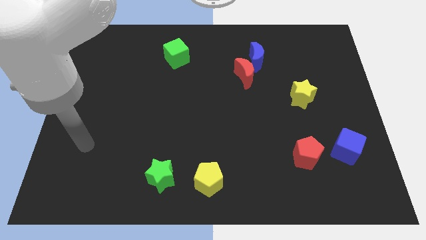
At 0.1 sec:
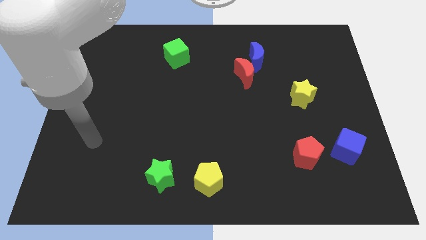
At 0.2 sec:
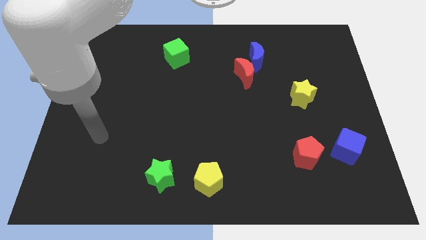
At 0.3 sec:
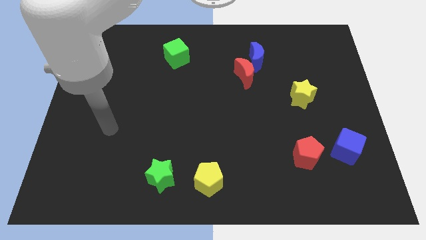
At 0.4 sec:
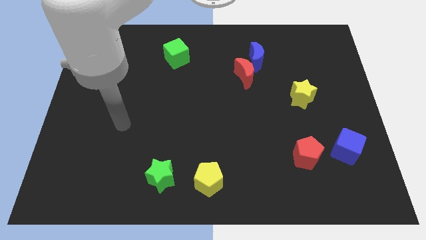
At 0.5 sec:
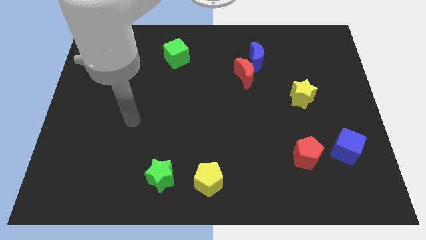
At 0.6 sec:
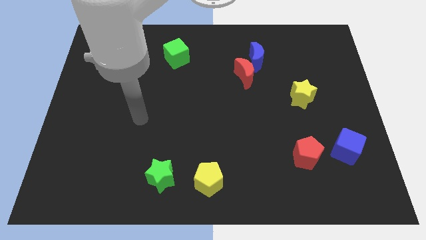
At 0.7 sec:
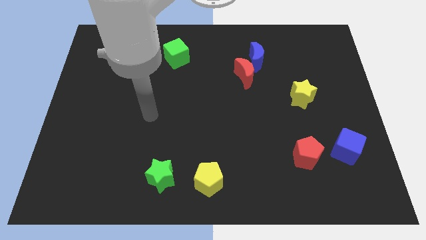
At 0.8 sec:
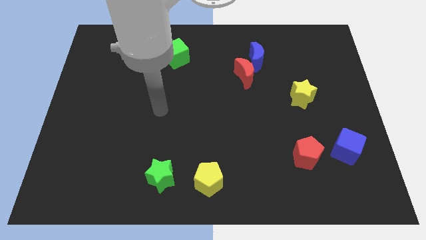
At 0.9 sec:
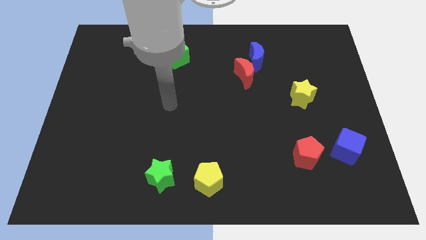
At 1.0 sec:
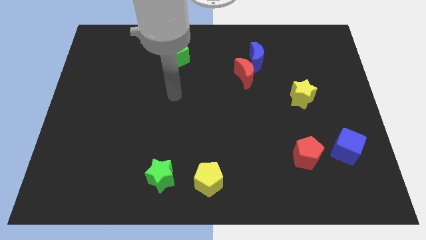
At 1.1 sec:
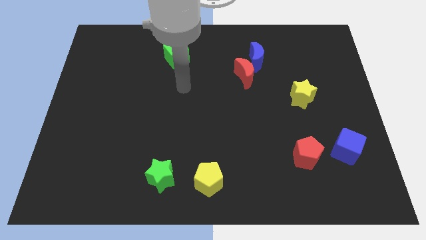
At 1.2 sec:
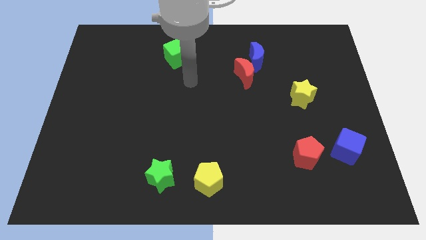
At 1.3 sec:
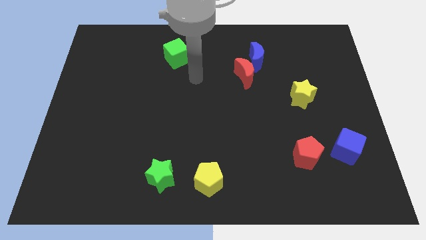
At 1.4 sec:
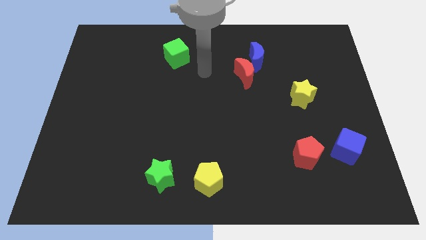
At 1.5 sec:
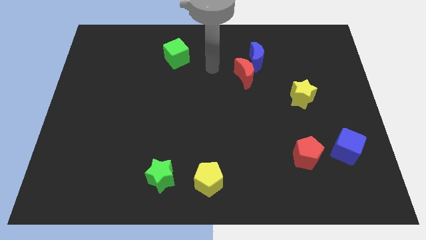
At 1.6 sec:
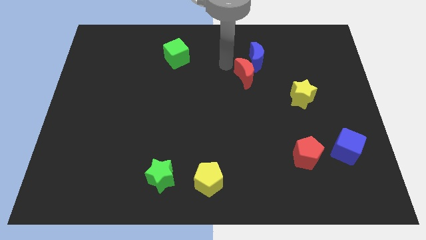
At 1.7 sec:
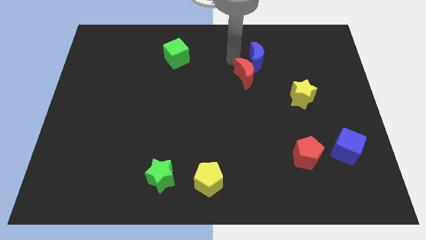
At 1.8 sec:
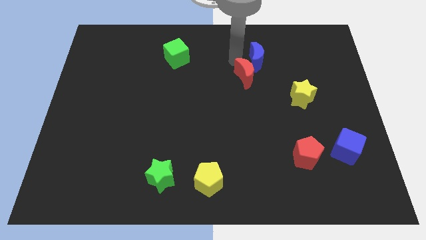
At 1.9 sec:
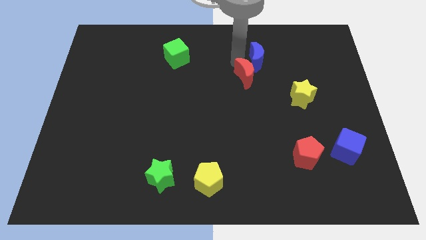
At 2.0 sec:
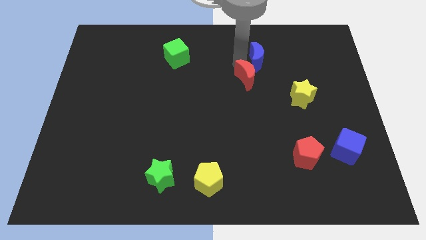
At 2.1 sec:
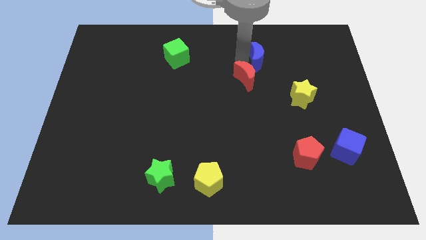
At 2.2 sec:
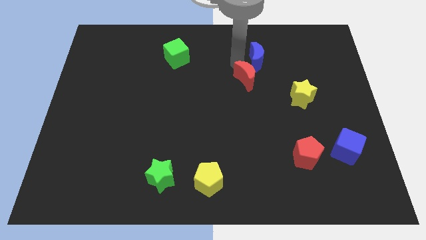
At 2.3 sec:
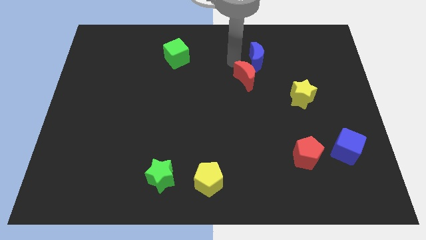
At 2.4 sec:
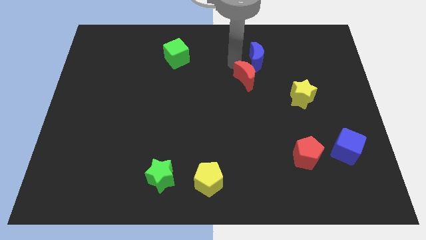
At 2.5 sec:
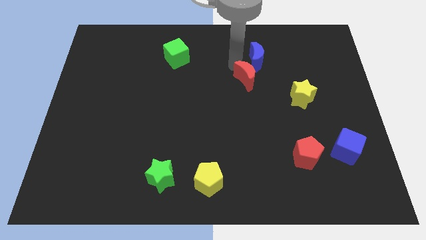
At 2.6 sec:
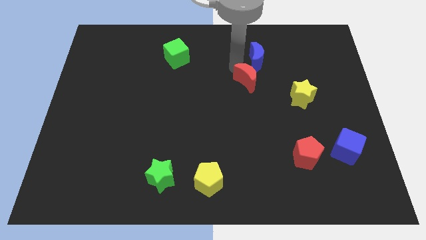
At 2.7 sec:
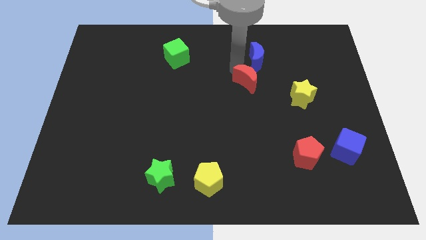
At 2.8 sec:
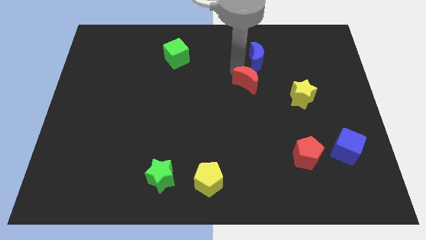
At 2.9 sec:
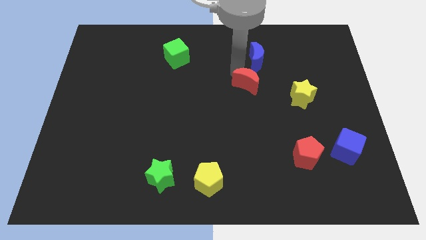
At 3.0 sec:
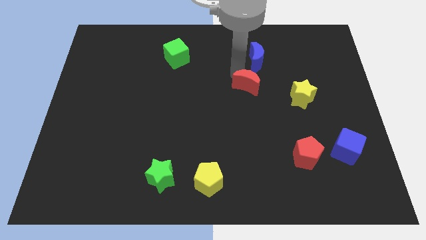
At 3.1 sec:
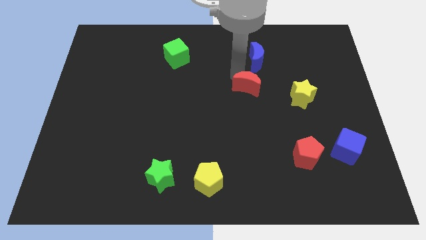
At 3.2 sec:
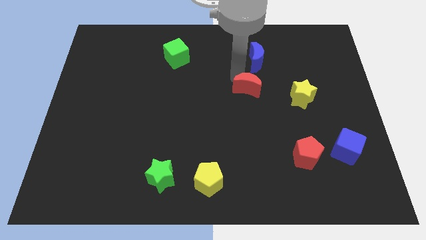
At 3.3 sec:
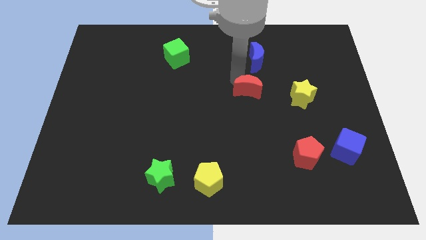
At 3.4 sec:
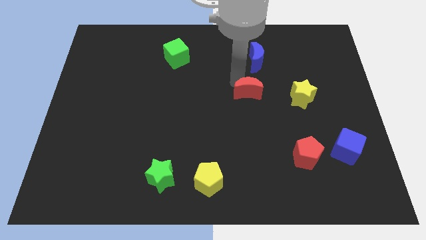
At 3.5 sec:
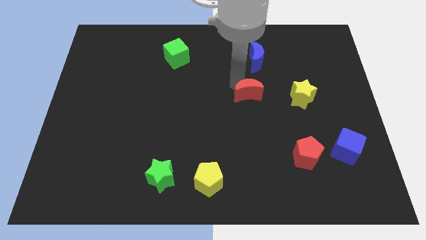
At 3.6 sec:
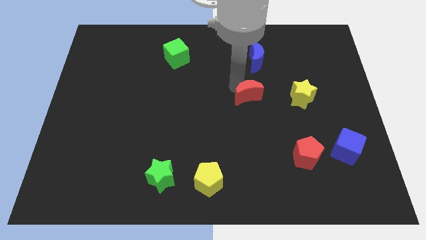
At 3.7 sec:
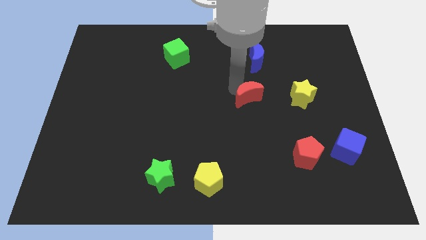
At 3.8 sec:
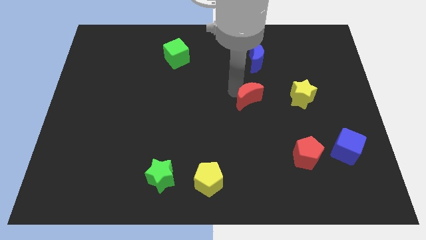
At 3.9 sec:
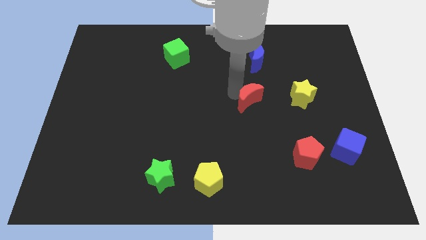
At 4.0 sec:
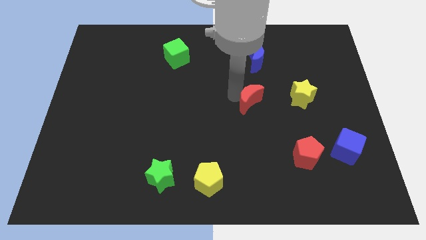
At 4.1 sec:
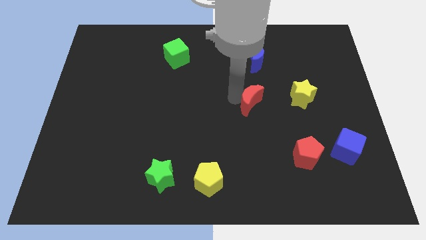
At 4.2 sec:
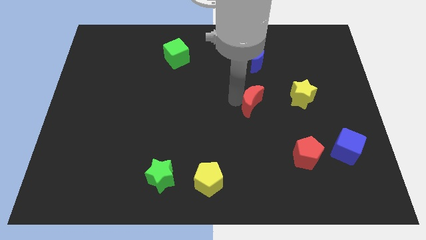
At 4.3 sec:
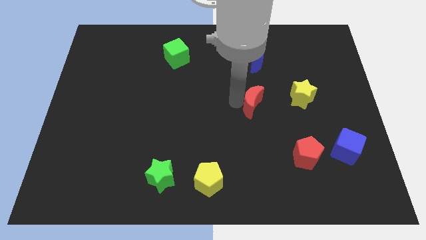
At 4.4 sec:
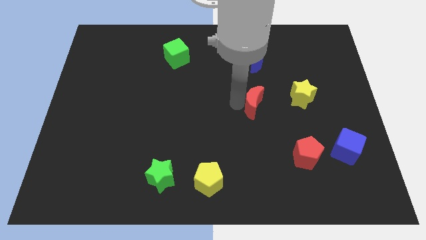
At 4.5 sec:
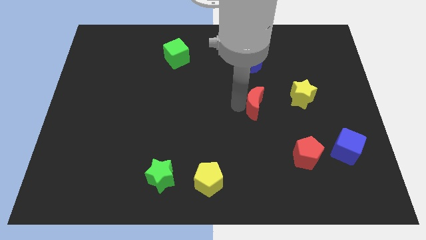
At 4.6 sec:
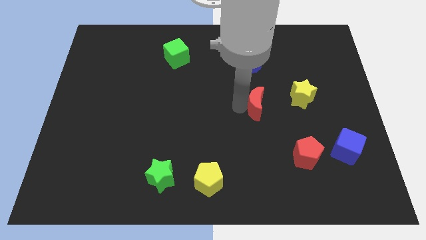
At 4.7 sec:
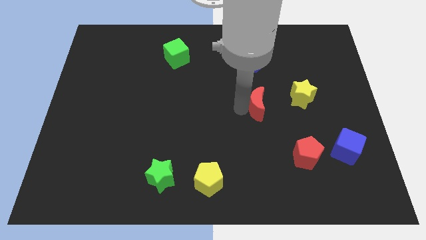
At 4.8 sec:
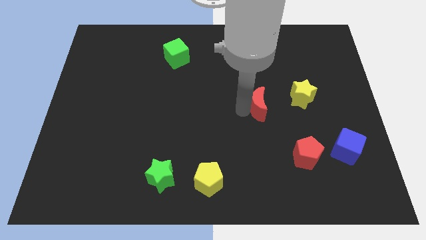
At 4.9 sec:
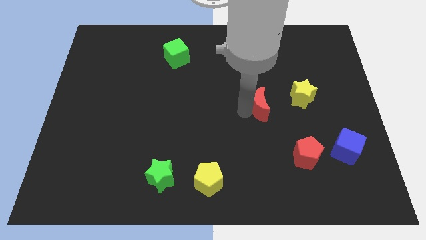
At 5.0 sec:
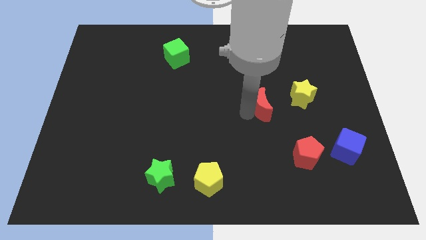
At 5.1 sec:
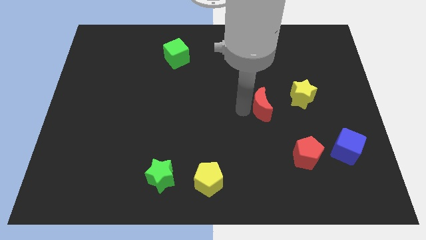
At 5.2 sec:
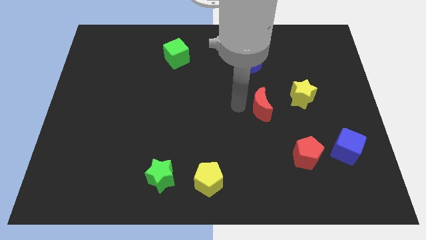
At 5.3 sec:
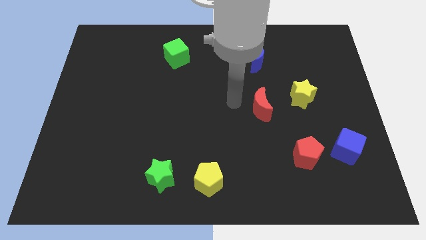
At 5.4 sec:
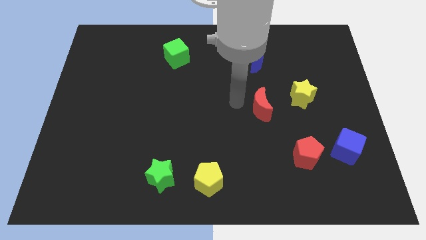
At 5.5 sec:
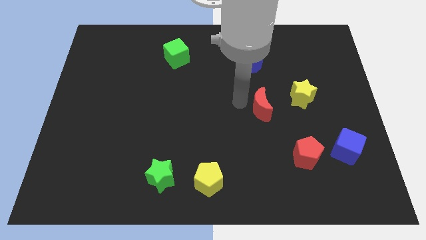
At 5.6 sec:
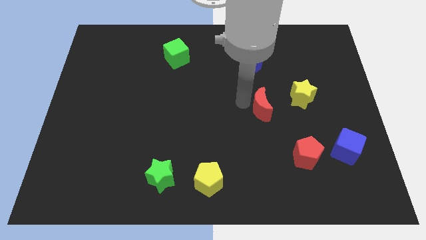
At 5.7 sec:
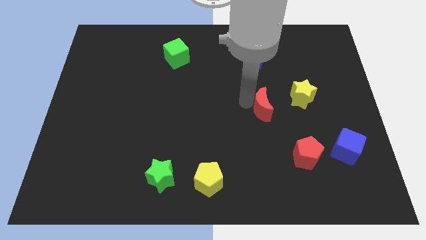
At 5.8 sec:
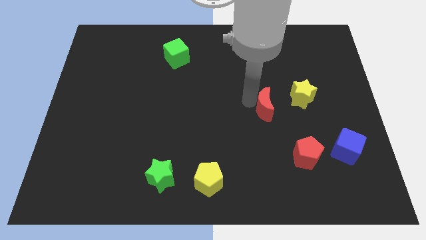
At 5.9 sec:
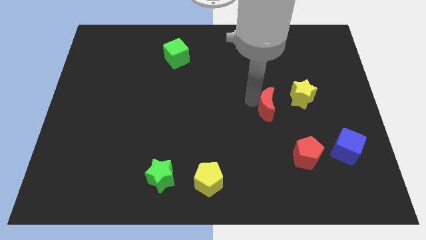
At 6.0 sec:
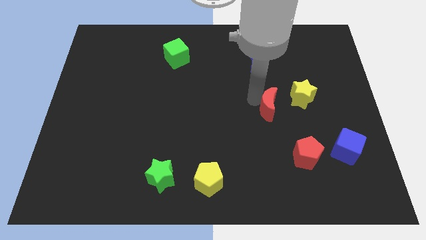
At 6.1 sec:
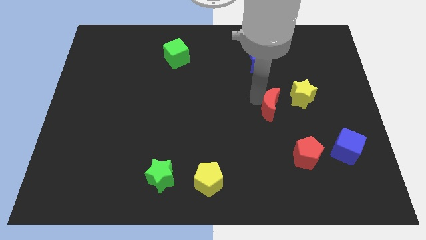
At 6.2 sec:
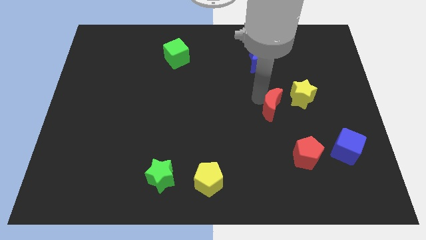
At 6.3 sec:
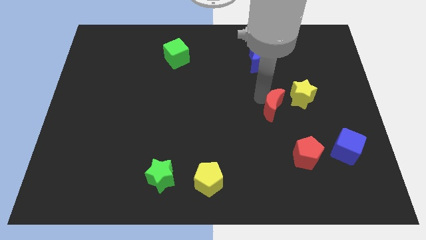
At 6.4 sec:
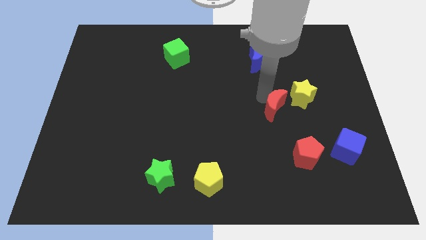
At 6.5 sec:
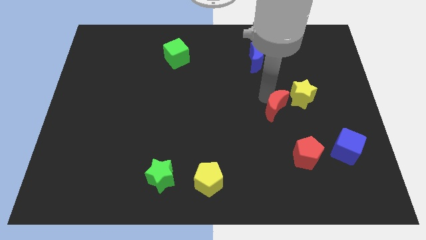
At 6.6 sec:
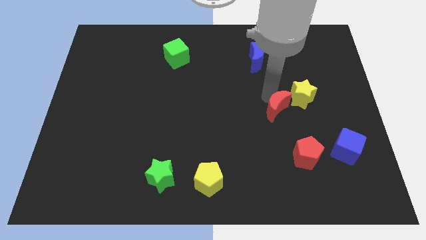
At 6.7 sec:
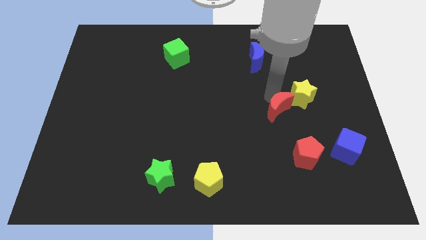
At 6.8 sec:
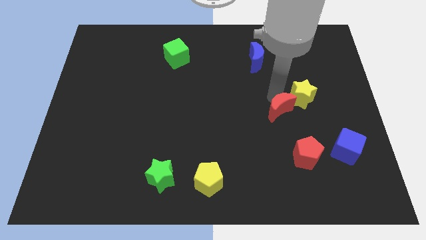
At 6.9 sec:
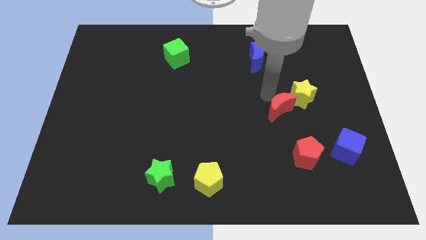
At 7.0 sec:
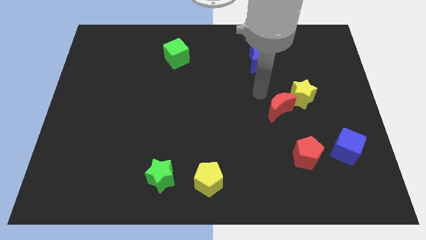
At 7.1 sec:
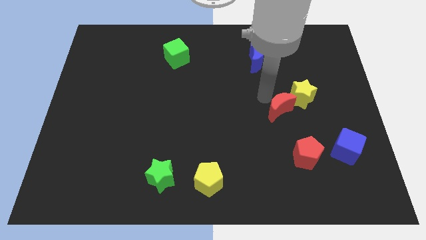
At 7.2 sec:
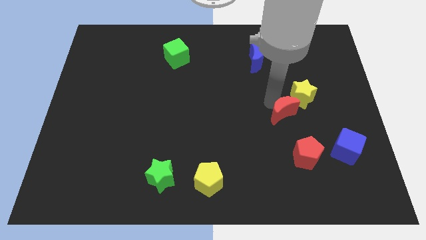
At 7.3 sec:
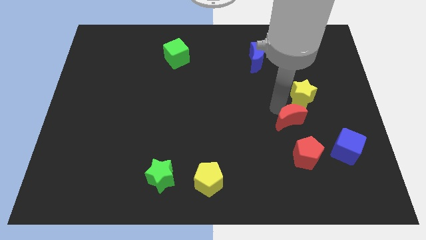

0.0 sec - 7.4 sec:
slide the red moon to the bottom side of the yellow star

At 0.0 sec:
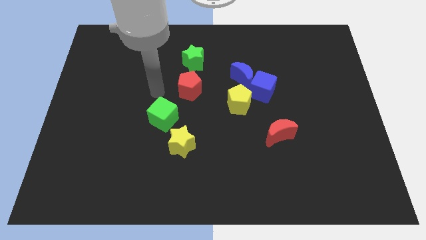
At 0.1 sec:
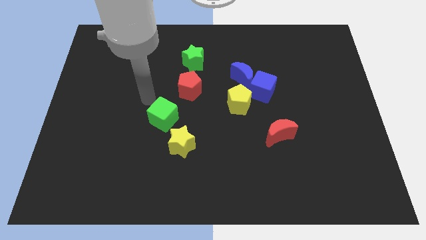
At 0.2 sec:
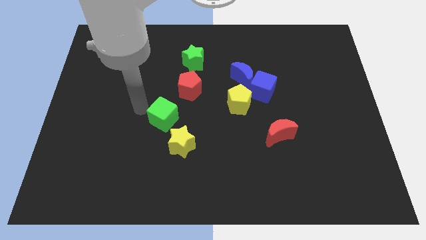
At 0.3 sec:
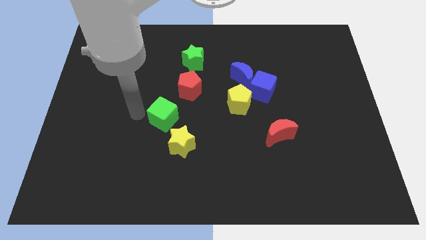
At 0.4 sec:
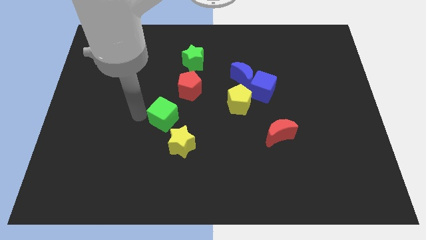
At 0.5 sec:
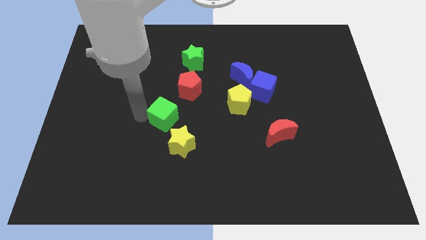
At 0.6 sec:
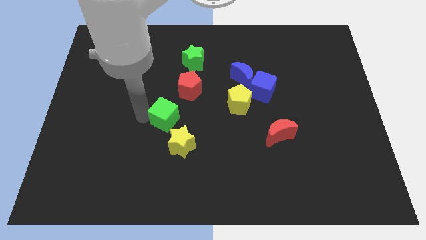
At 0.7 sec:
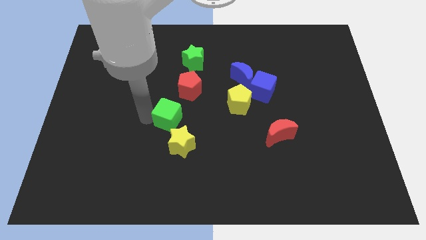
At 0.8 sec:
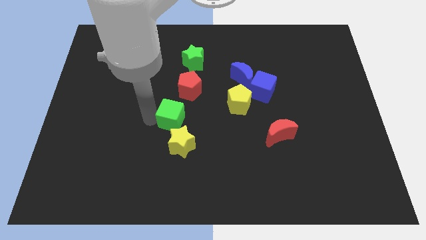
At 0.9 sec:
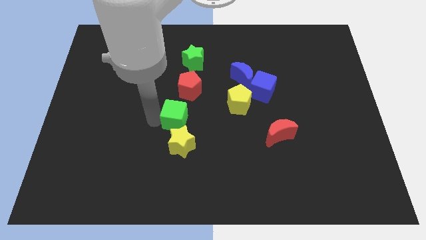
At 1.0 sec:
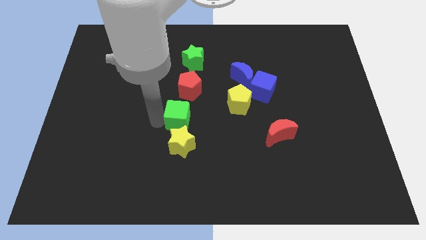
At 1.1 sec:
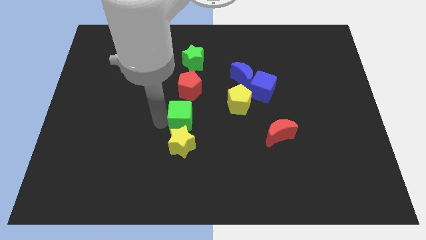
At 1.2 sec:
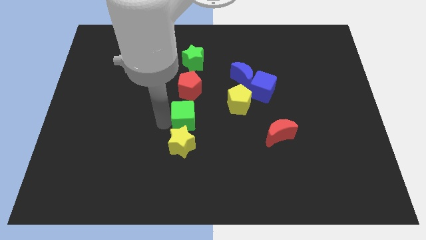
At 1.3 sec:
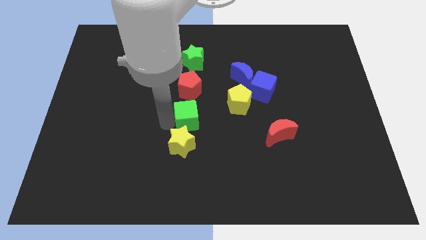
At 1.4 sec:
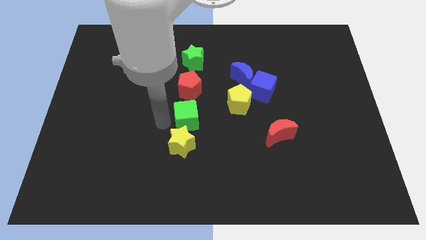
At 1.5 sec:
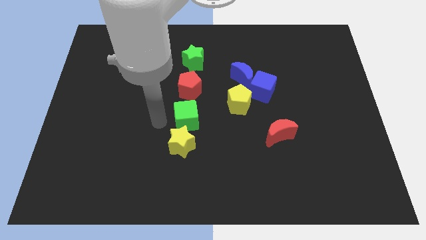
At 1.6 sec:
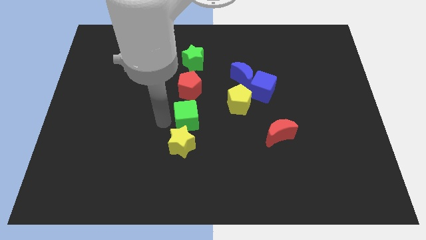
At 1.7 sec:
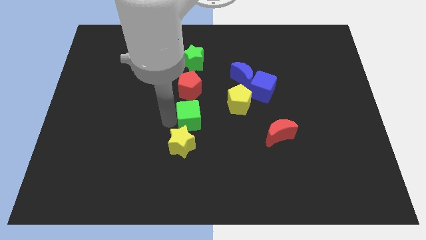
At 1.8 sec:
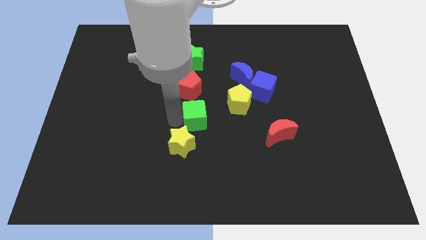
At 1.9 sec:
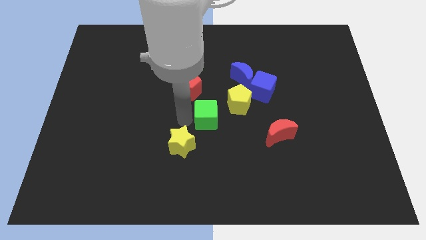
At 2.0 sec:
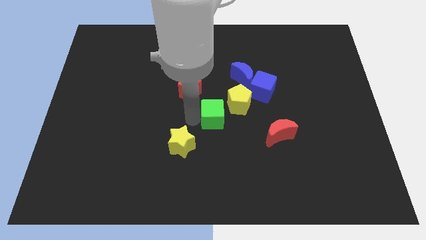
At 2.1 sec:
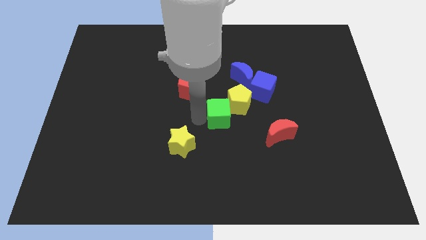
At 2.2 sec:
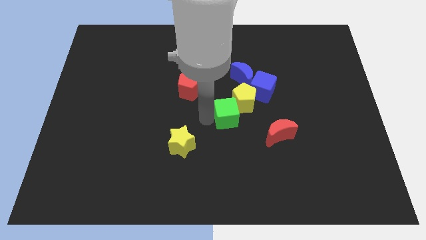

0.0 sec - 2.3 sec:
put the green cube to the bottom left side of the blue cube
